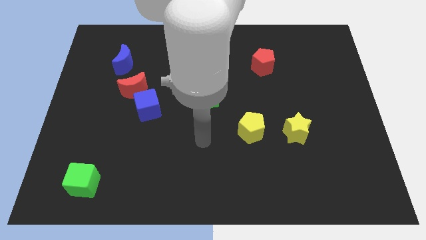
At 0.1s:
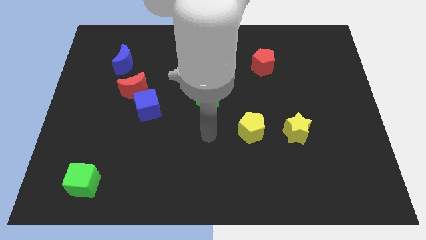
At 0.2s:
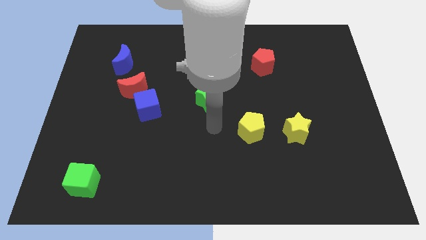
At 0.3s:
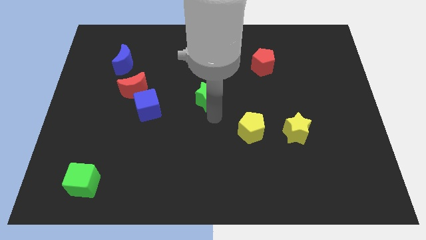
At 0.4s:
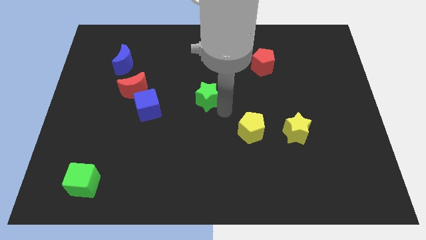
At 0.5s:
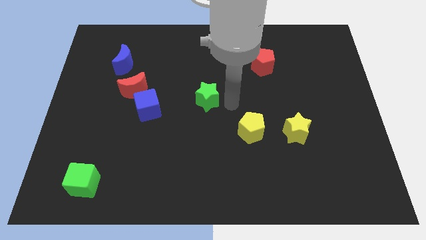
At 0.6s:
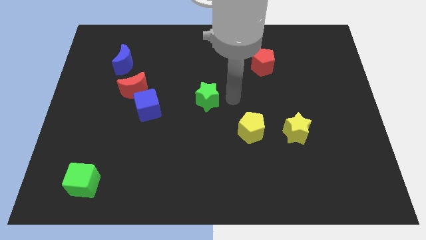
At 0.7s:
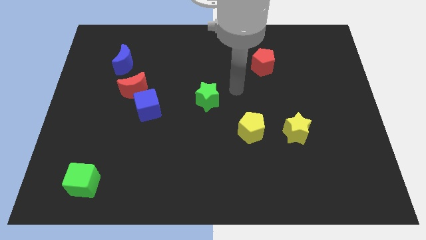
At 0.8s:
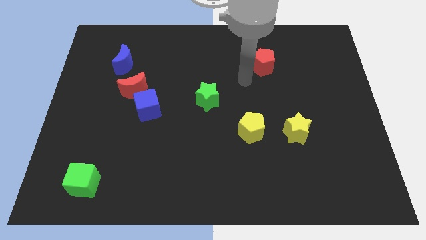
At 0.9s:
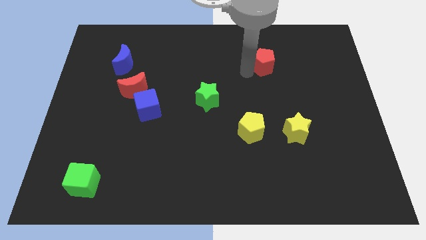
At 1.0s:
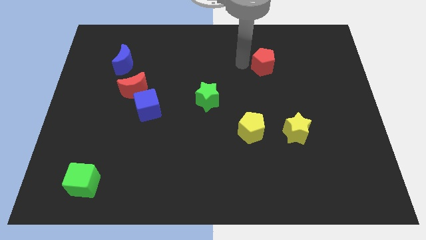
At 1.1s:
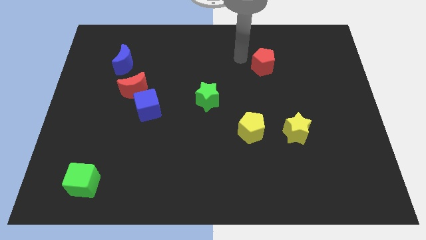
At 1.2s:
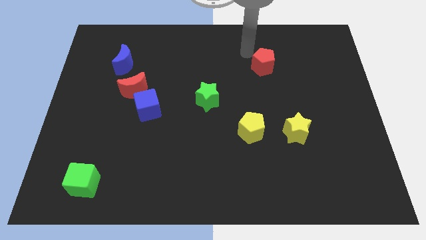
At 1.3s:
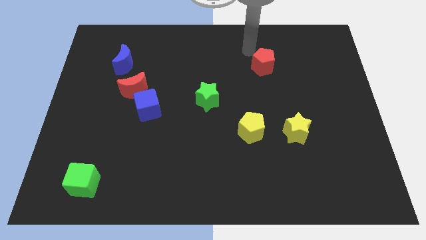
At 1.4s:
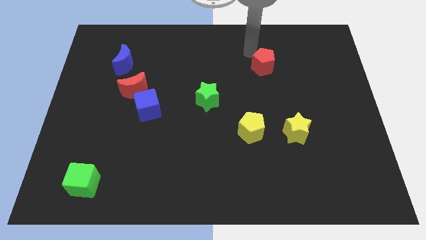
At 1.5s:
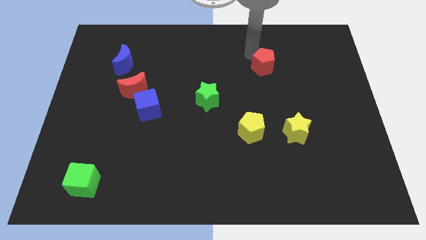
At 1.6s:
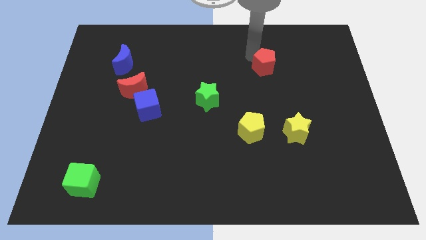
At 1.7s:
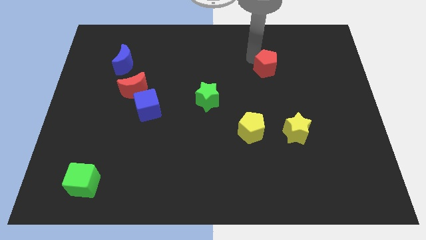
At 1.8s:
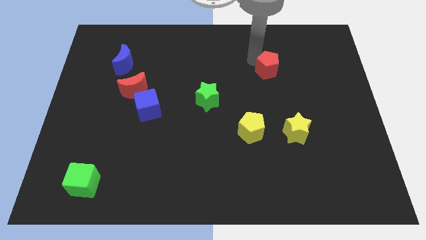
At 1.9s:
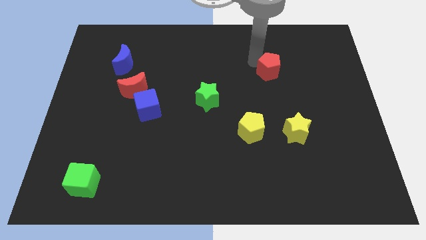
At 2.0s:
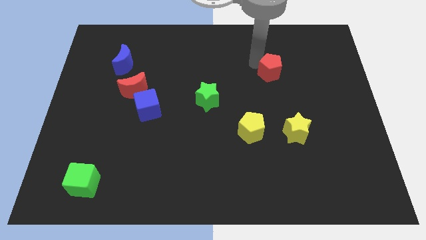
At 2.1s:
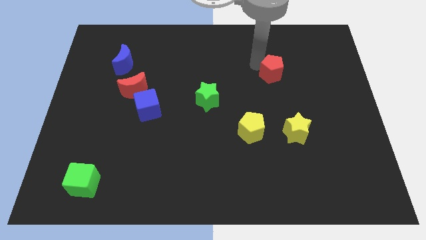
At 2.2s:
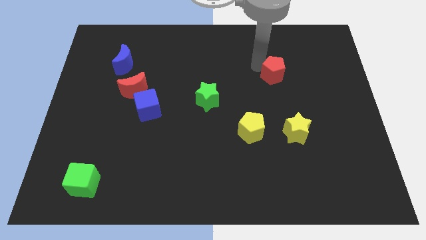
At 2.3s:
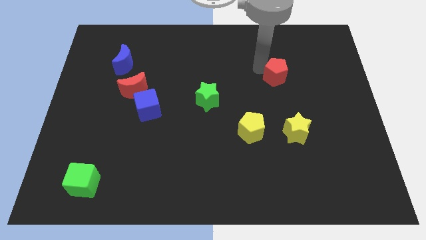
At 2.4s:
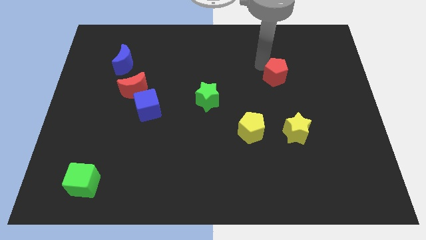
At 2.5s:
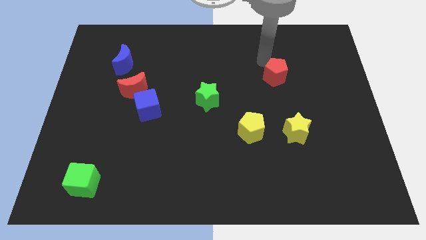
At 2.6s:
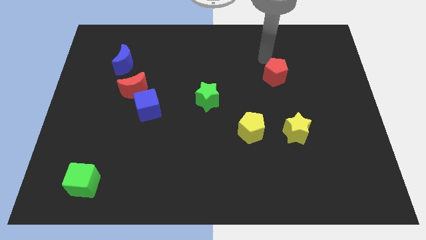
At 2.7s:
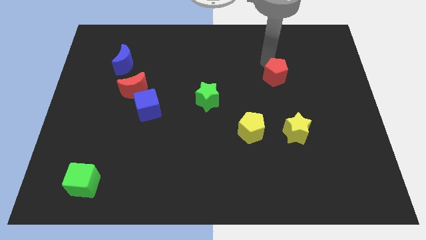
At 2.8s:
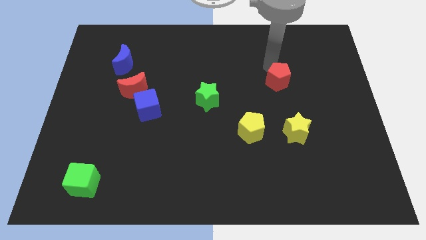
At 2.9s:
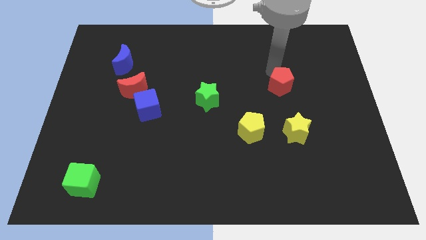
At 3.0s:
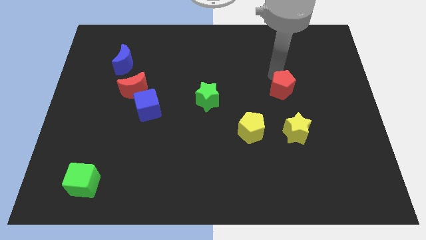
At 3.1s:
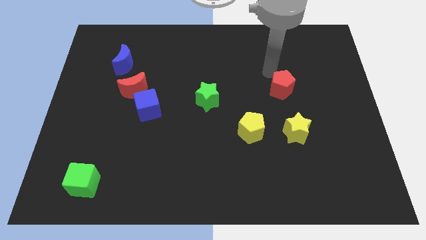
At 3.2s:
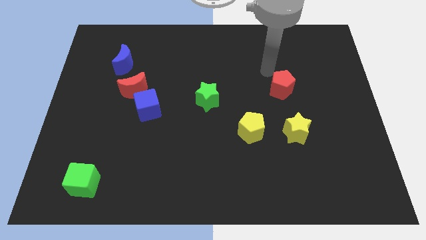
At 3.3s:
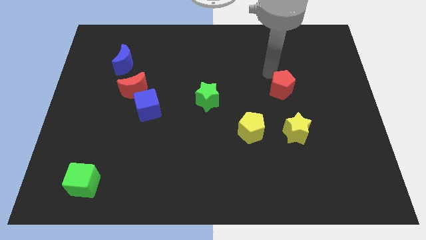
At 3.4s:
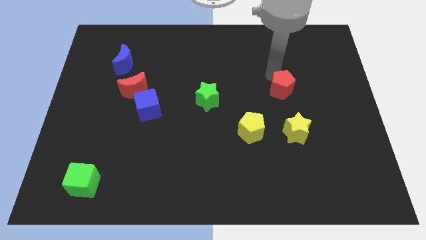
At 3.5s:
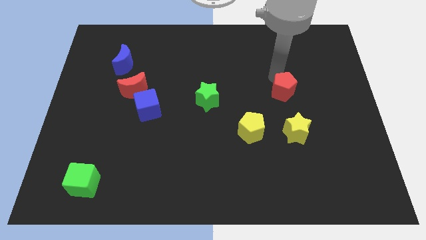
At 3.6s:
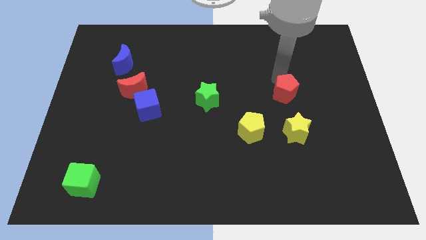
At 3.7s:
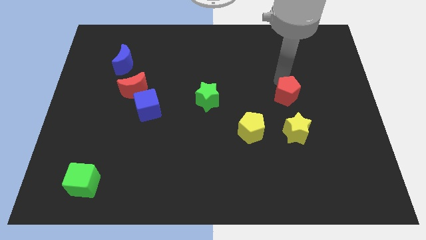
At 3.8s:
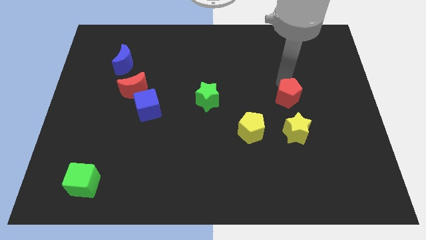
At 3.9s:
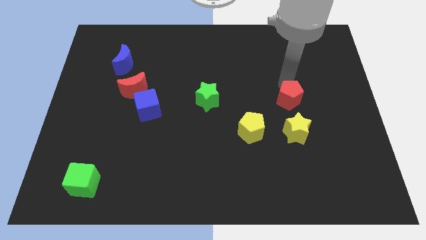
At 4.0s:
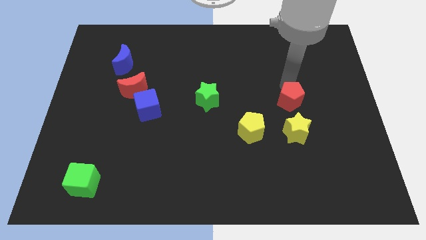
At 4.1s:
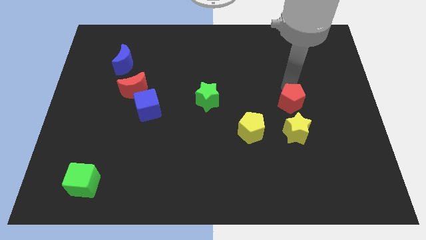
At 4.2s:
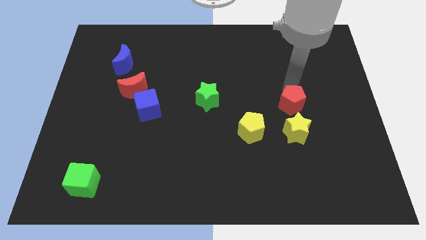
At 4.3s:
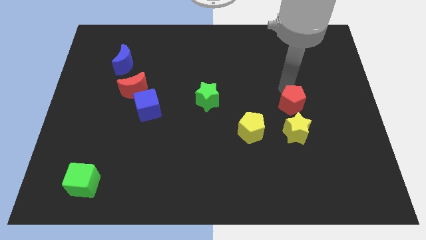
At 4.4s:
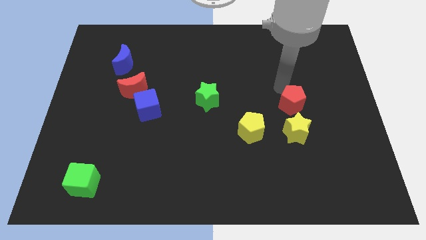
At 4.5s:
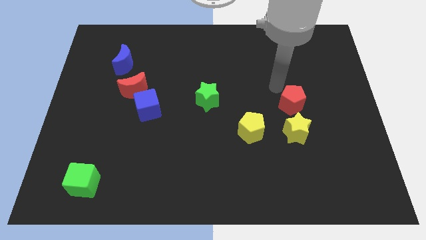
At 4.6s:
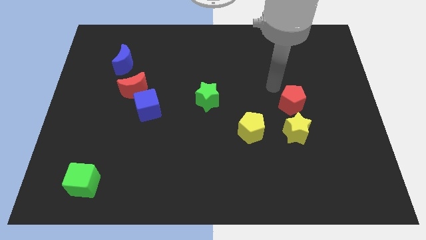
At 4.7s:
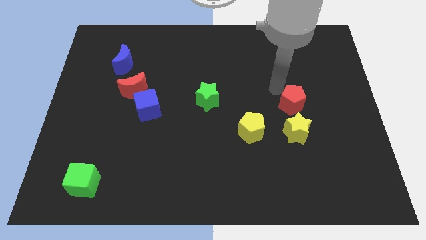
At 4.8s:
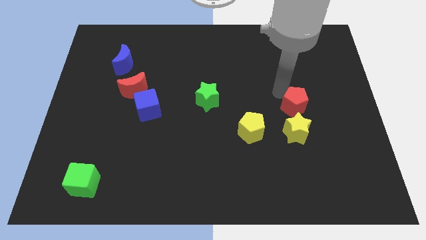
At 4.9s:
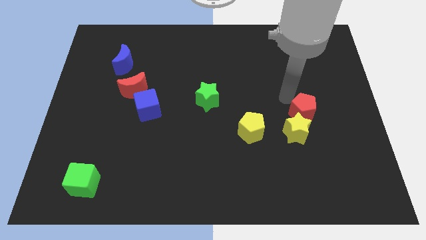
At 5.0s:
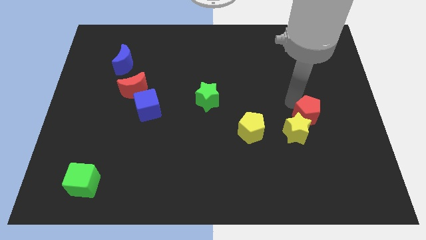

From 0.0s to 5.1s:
push the red pentagon right of the yellow pentagon

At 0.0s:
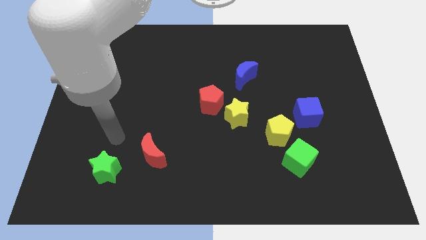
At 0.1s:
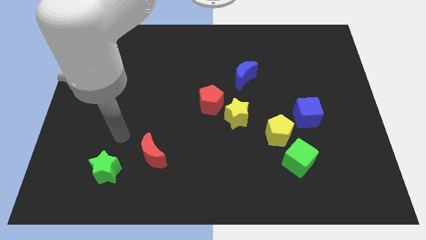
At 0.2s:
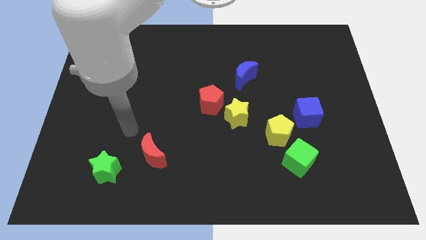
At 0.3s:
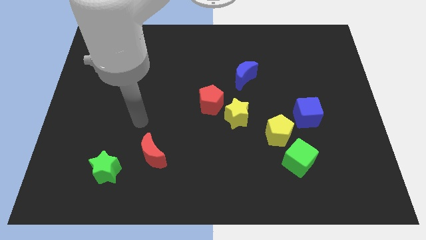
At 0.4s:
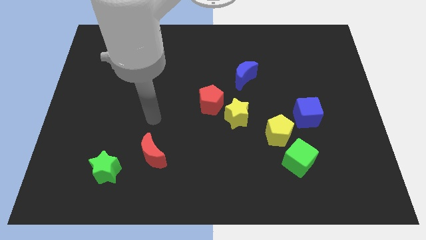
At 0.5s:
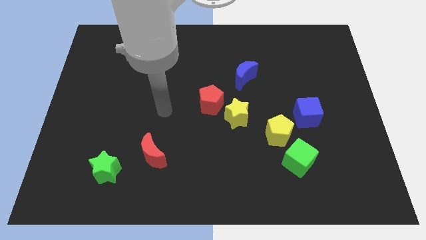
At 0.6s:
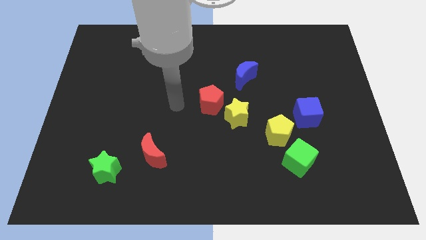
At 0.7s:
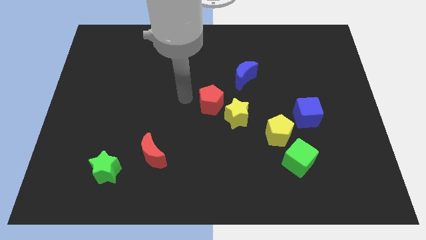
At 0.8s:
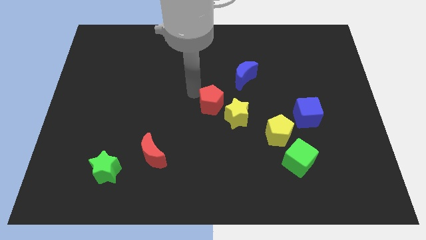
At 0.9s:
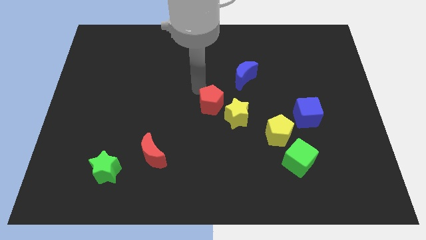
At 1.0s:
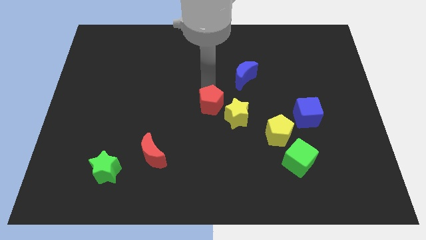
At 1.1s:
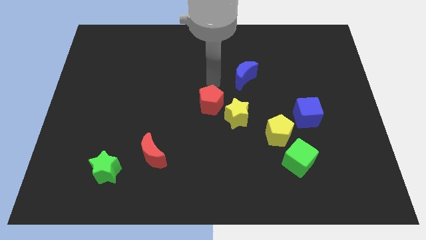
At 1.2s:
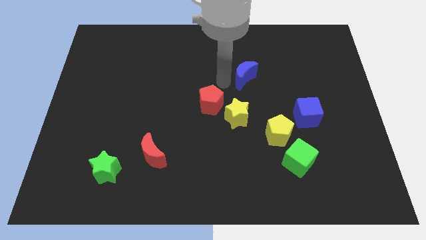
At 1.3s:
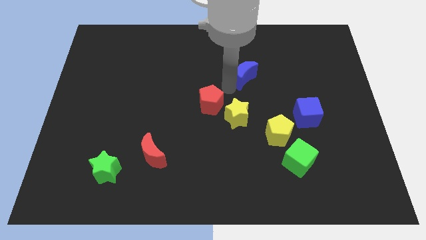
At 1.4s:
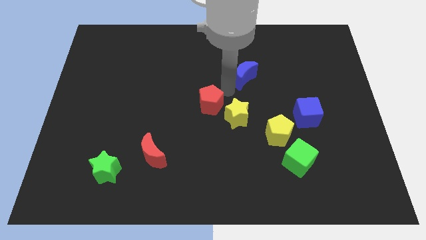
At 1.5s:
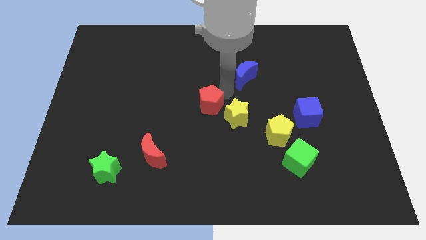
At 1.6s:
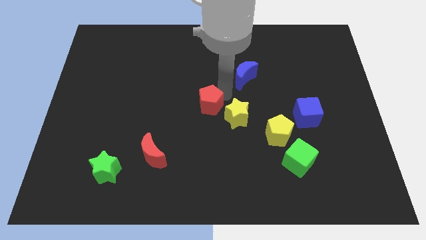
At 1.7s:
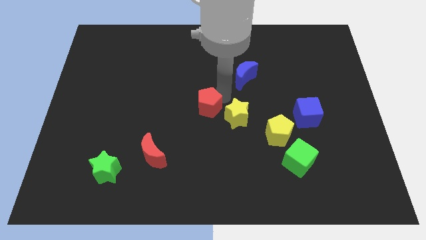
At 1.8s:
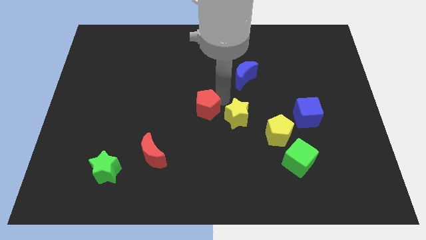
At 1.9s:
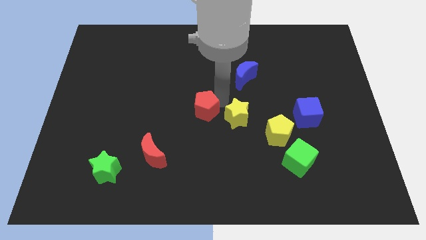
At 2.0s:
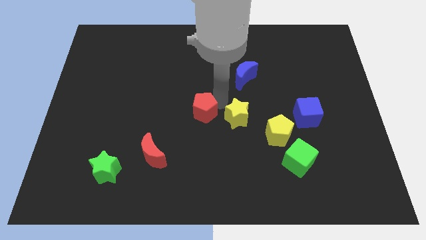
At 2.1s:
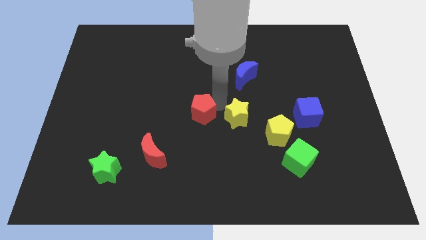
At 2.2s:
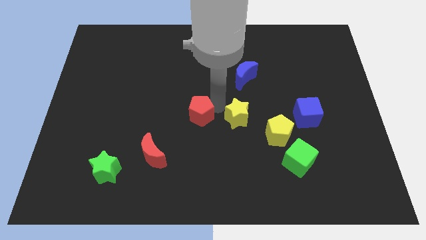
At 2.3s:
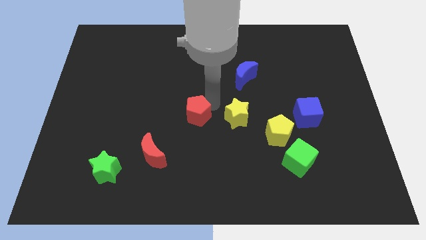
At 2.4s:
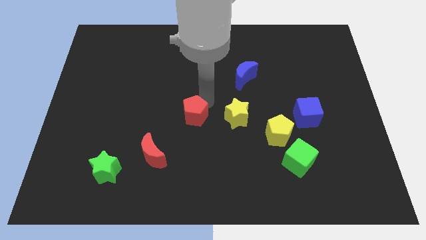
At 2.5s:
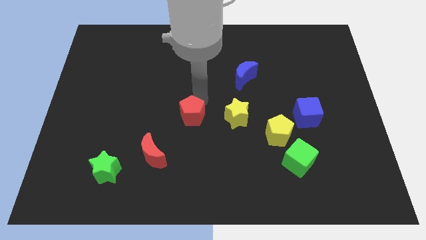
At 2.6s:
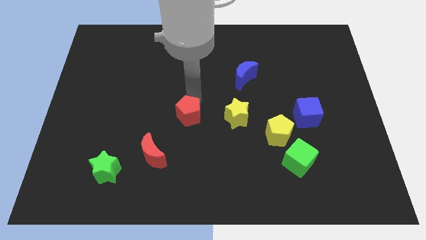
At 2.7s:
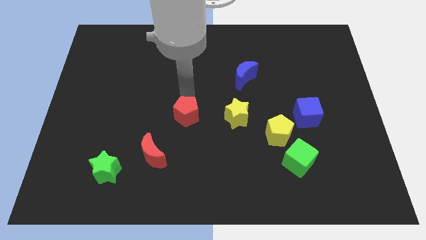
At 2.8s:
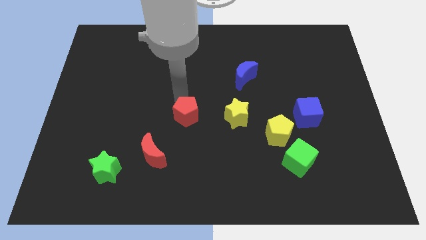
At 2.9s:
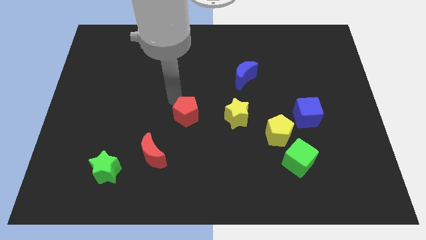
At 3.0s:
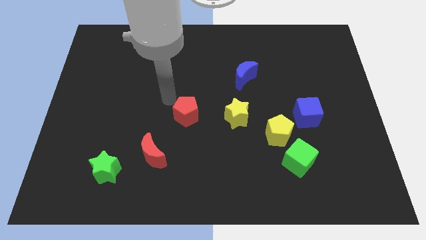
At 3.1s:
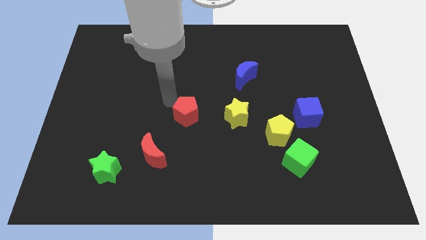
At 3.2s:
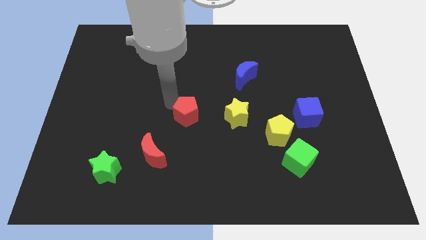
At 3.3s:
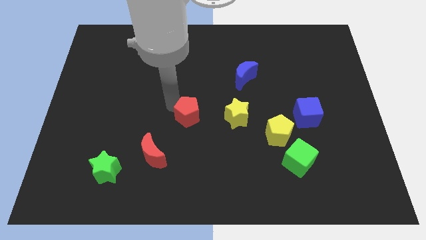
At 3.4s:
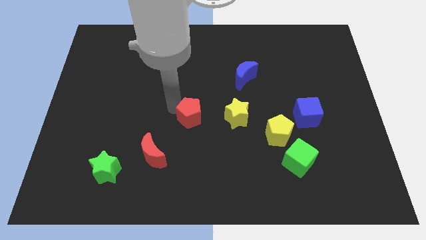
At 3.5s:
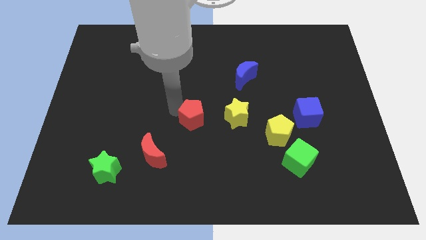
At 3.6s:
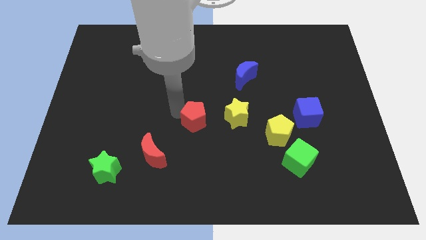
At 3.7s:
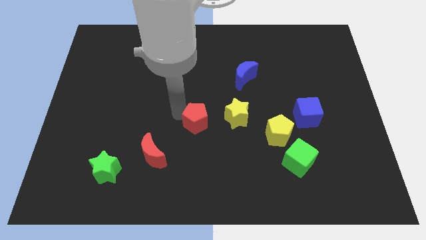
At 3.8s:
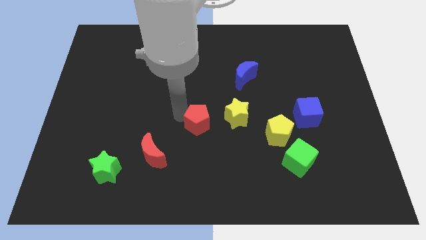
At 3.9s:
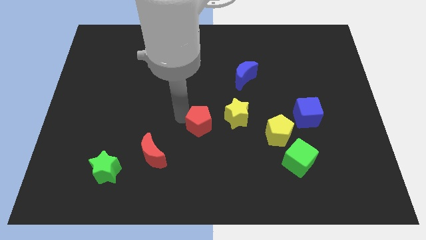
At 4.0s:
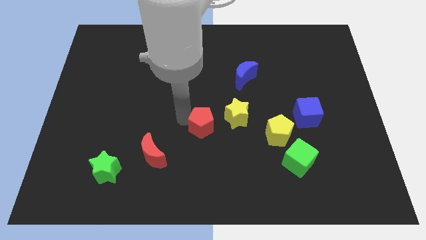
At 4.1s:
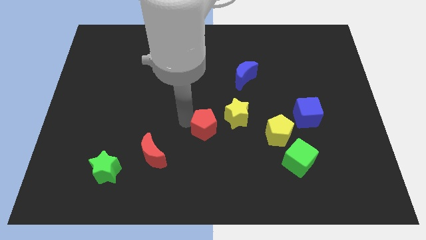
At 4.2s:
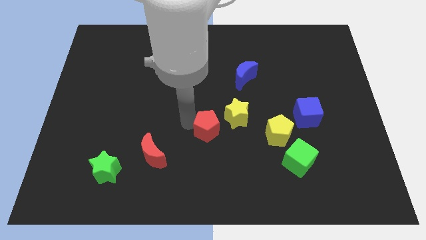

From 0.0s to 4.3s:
put the red pentagon left of the yellow pentagon
